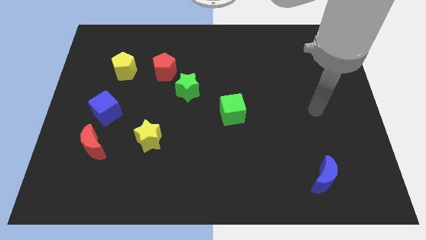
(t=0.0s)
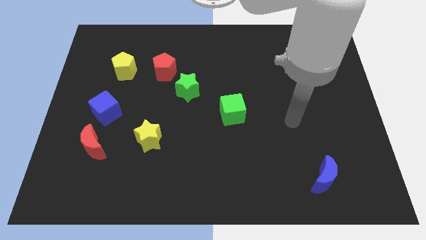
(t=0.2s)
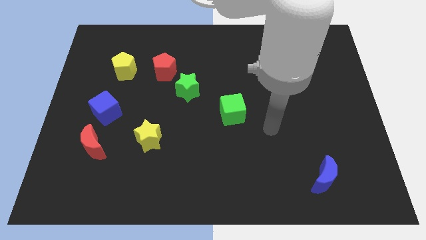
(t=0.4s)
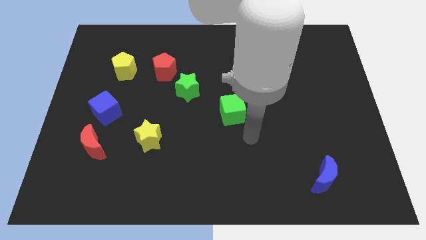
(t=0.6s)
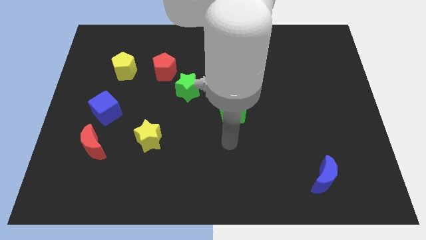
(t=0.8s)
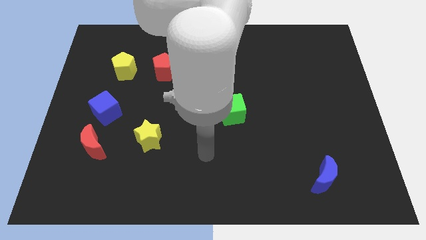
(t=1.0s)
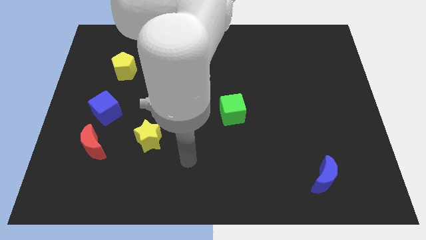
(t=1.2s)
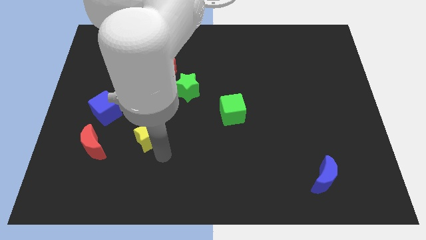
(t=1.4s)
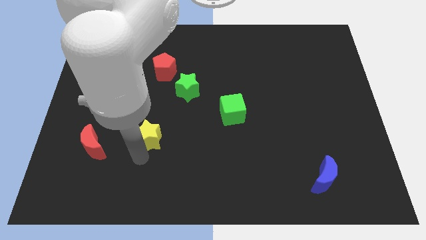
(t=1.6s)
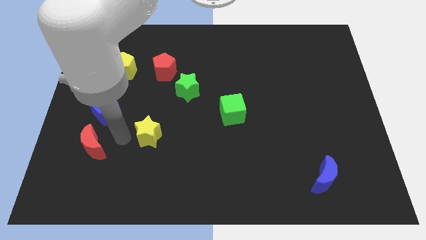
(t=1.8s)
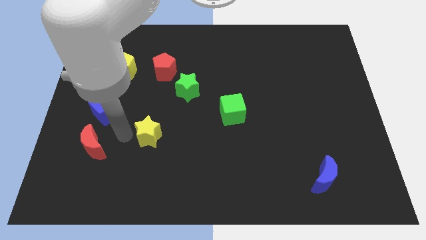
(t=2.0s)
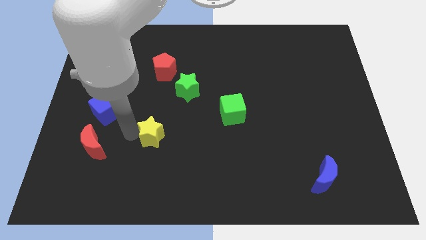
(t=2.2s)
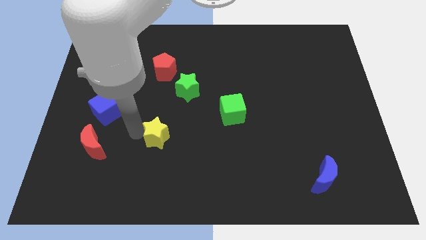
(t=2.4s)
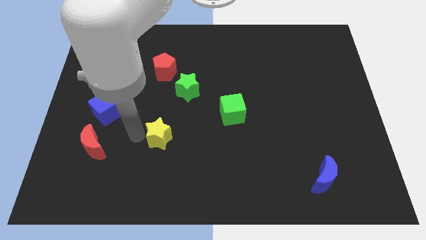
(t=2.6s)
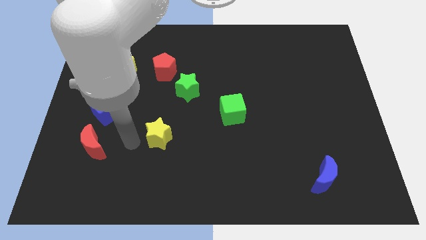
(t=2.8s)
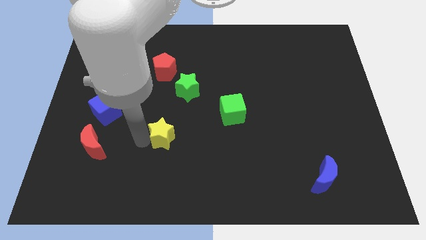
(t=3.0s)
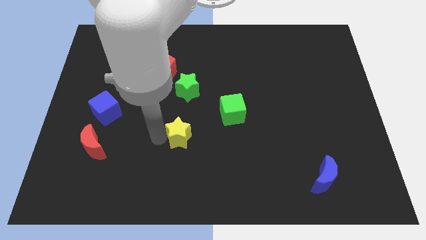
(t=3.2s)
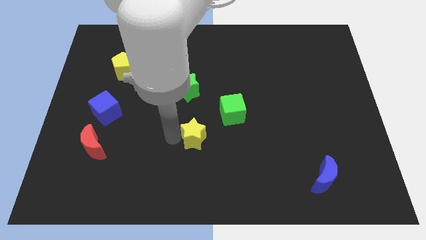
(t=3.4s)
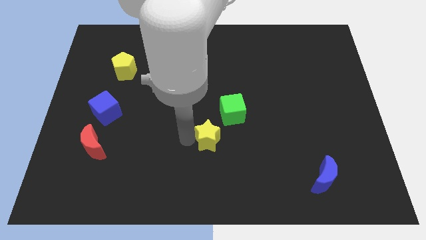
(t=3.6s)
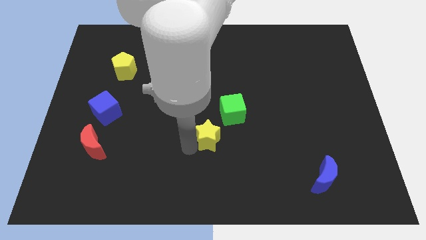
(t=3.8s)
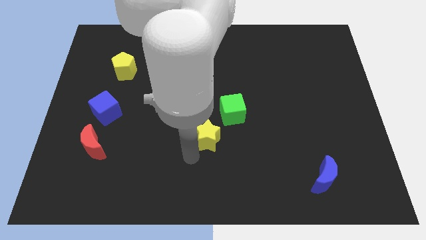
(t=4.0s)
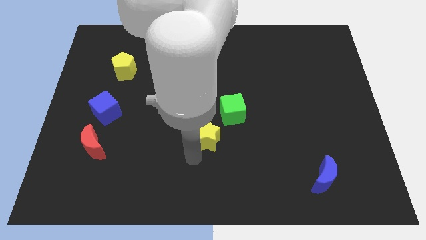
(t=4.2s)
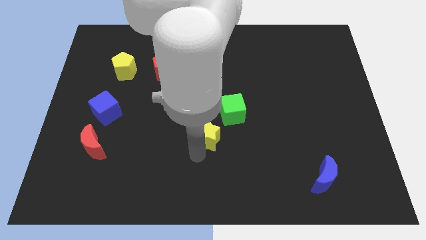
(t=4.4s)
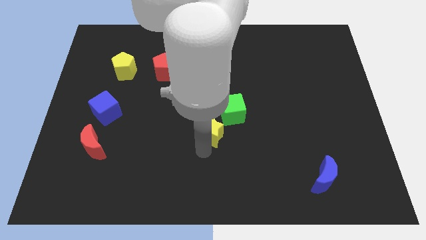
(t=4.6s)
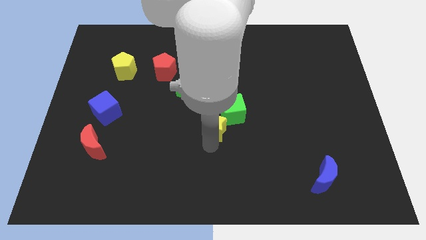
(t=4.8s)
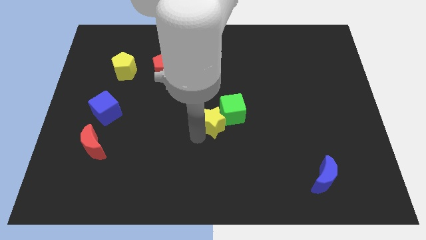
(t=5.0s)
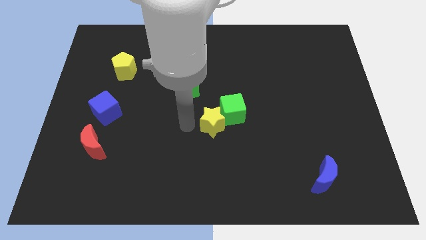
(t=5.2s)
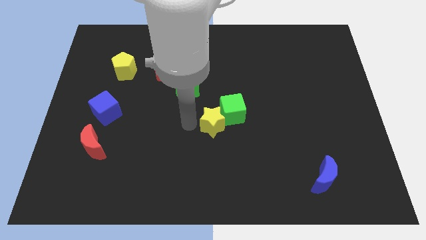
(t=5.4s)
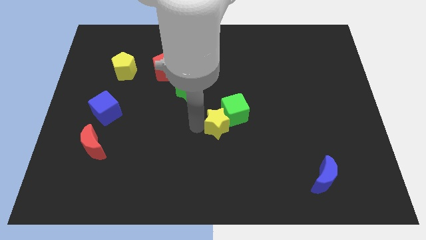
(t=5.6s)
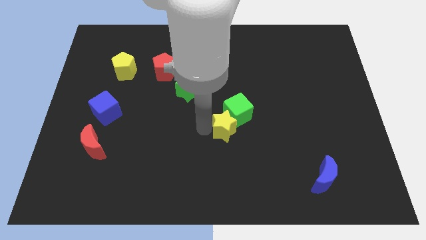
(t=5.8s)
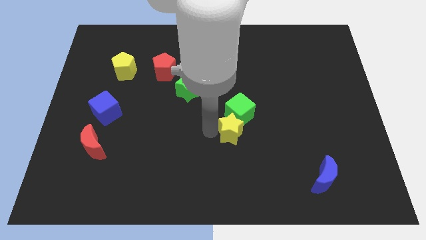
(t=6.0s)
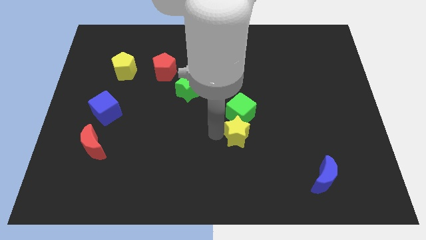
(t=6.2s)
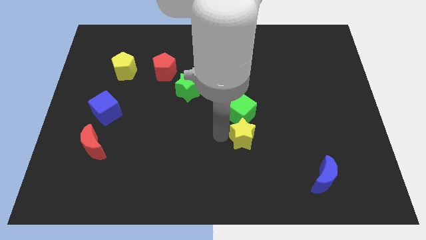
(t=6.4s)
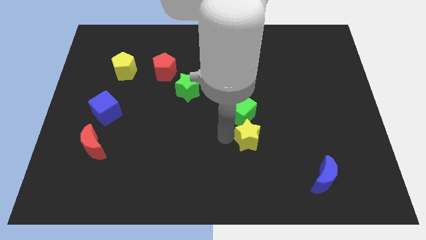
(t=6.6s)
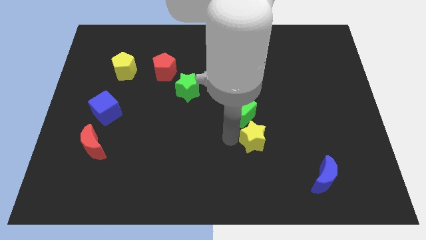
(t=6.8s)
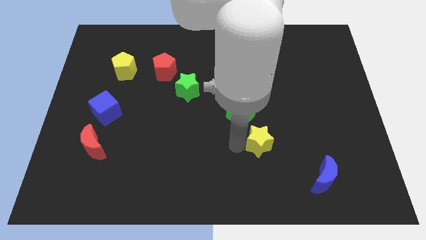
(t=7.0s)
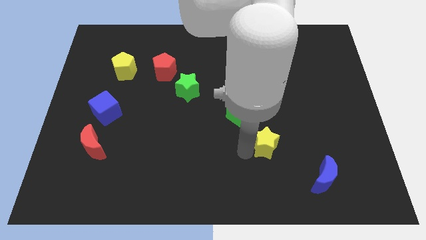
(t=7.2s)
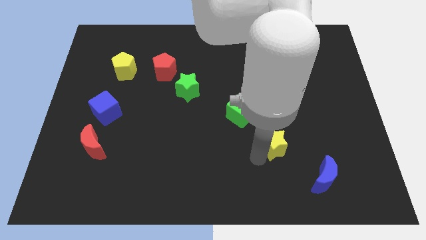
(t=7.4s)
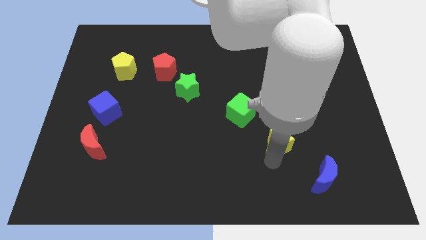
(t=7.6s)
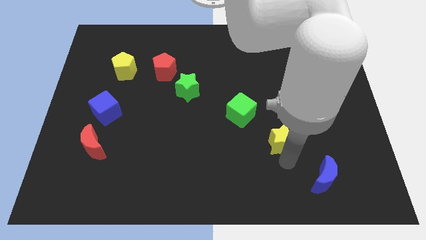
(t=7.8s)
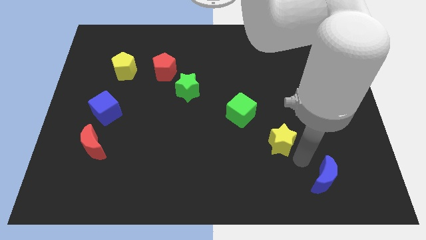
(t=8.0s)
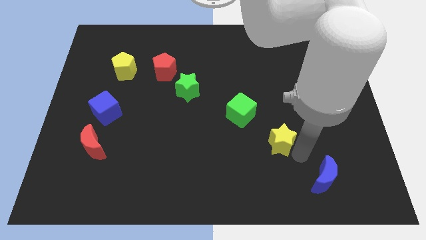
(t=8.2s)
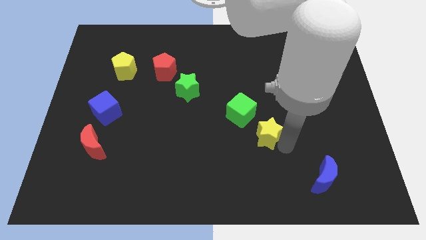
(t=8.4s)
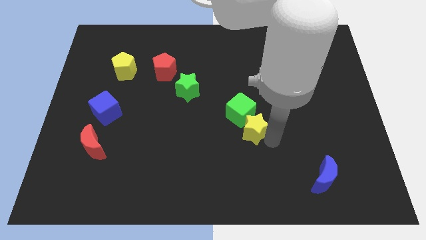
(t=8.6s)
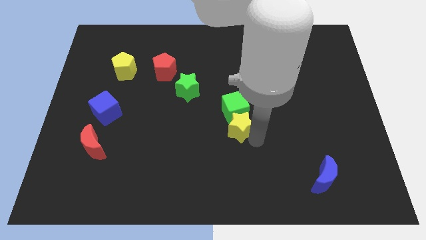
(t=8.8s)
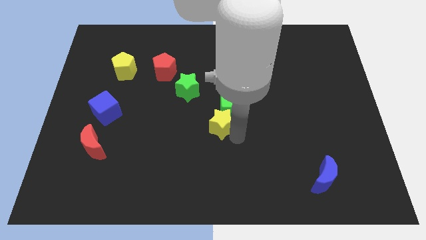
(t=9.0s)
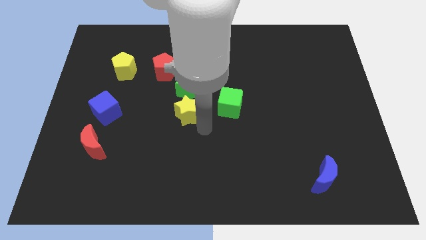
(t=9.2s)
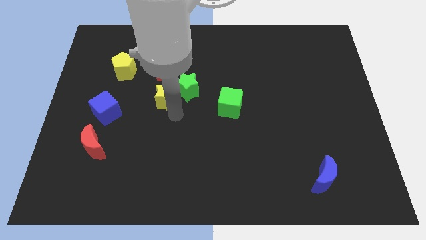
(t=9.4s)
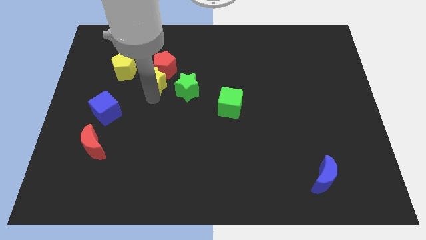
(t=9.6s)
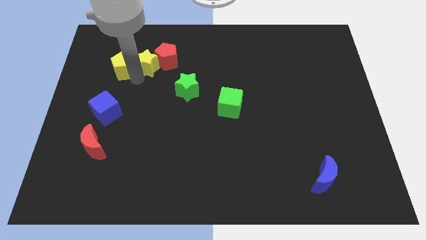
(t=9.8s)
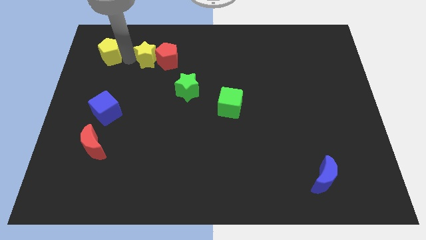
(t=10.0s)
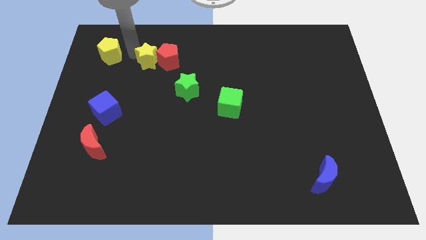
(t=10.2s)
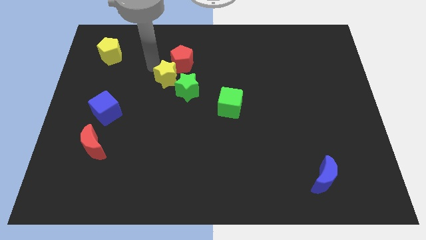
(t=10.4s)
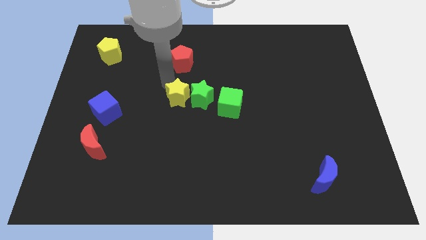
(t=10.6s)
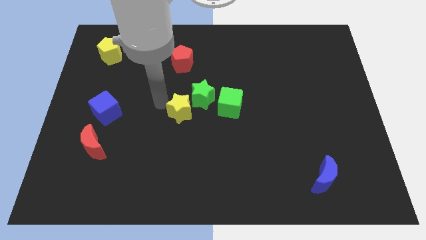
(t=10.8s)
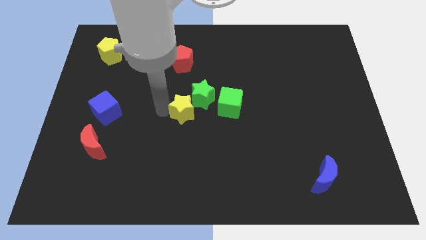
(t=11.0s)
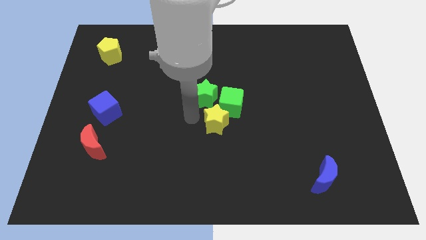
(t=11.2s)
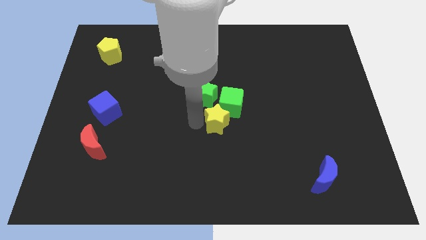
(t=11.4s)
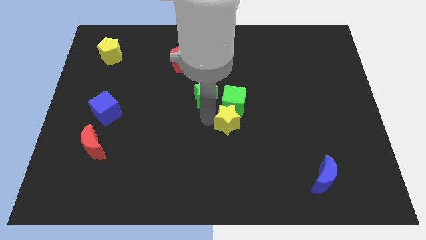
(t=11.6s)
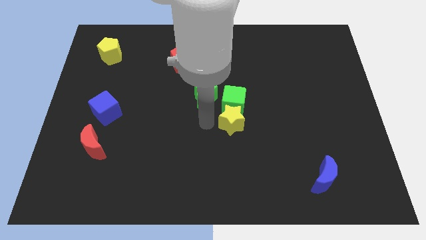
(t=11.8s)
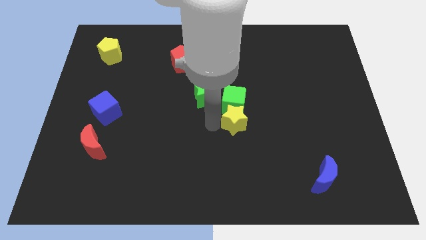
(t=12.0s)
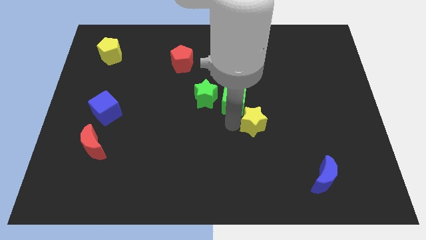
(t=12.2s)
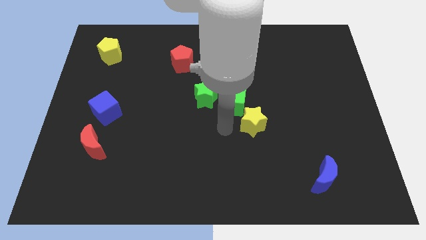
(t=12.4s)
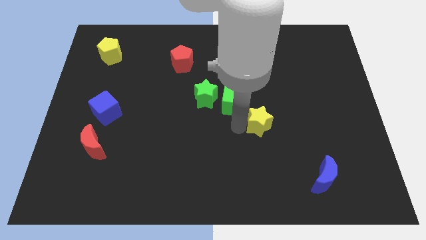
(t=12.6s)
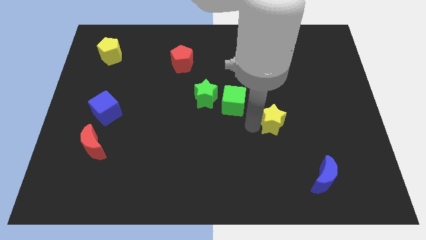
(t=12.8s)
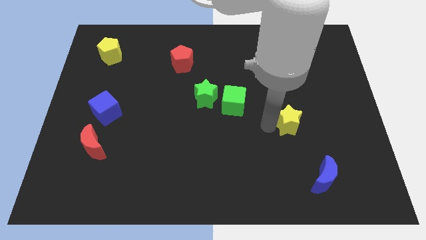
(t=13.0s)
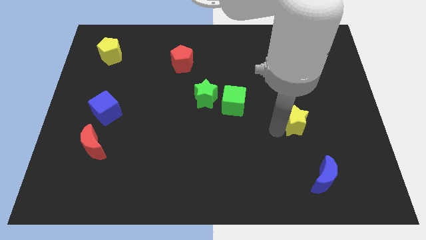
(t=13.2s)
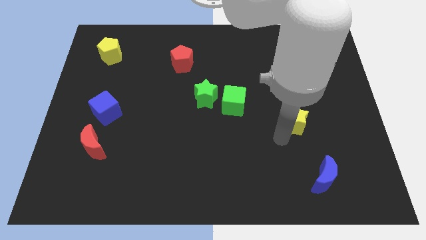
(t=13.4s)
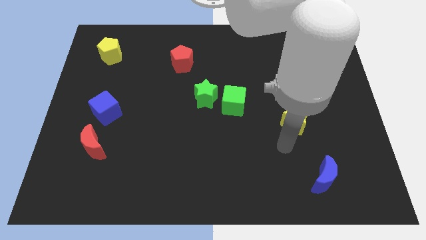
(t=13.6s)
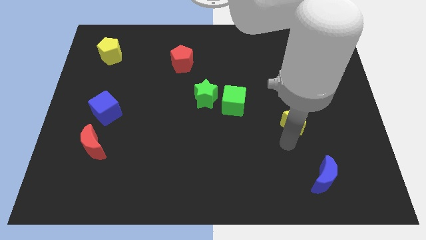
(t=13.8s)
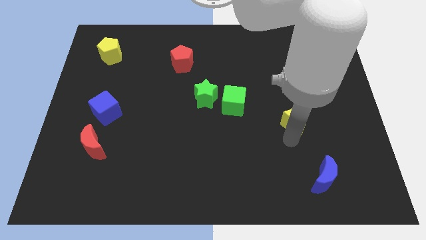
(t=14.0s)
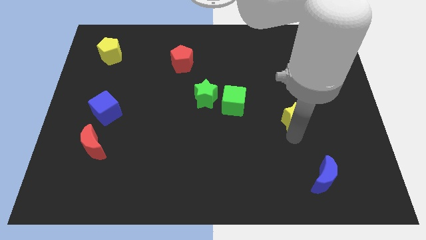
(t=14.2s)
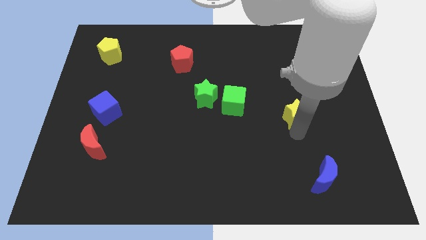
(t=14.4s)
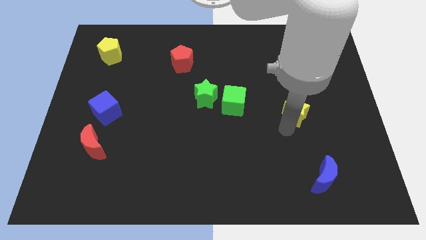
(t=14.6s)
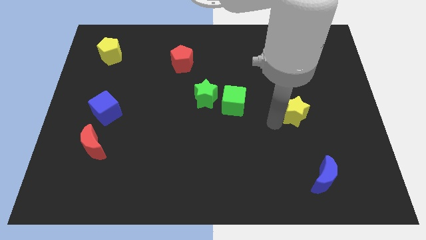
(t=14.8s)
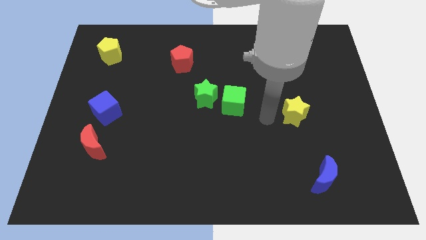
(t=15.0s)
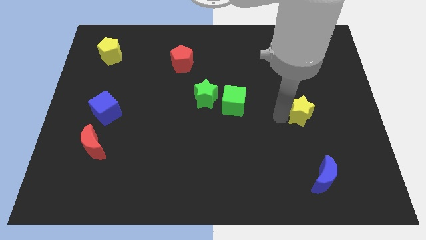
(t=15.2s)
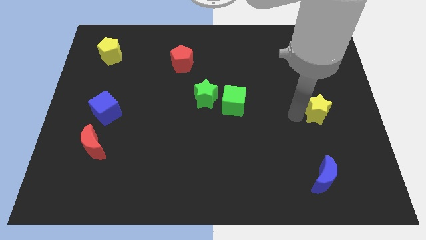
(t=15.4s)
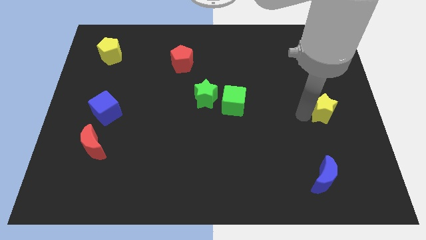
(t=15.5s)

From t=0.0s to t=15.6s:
slide the yellow star to the right side of the board
